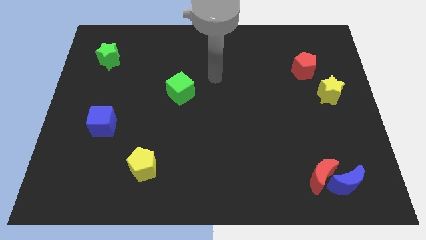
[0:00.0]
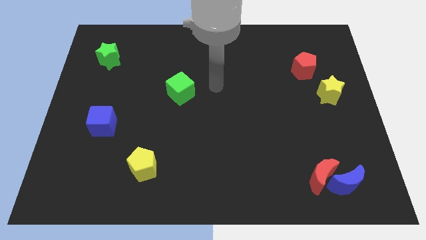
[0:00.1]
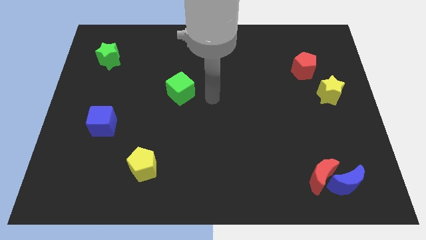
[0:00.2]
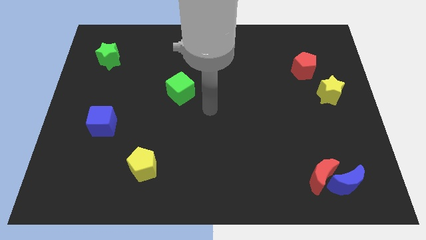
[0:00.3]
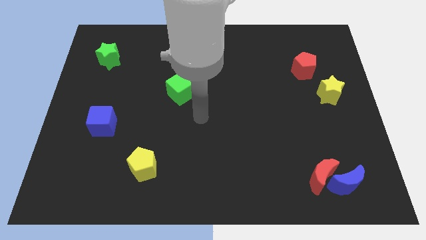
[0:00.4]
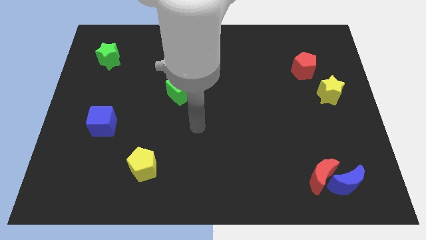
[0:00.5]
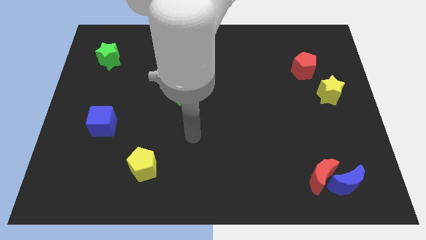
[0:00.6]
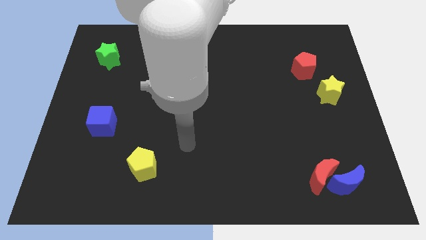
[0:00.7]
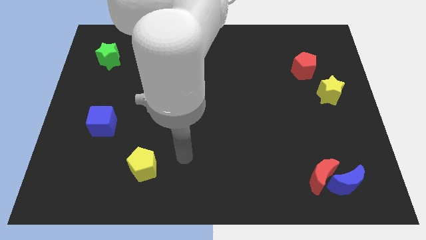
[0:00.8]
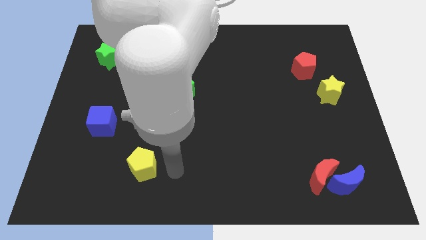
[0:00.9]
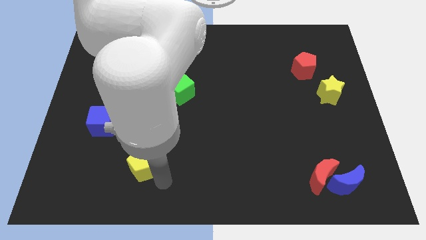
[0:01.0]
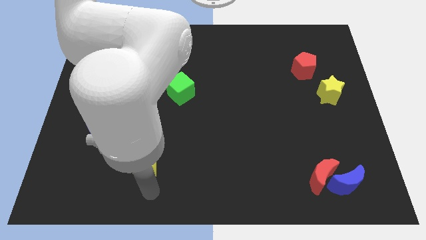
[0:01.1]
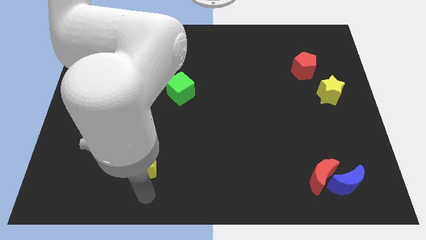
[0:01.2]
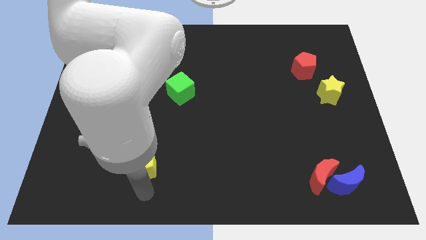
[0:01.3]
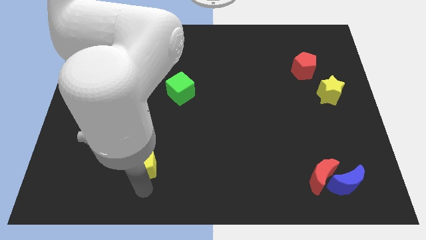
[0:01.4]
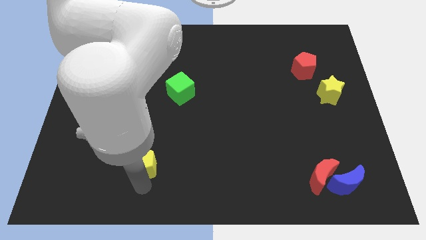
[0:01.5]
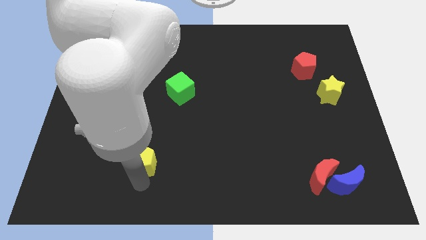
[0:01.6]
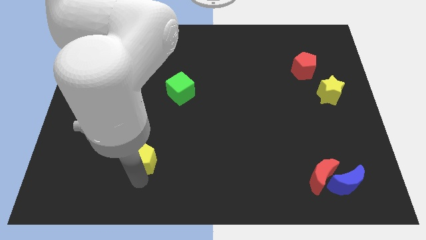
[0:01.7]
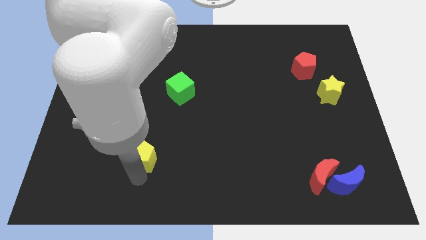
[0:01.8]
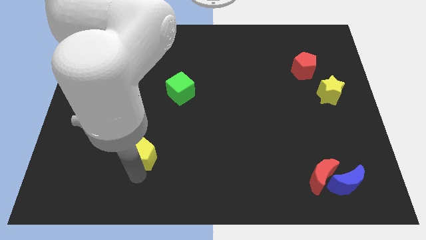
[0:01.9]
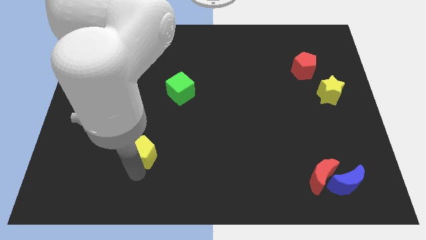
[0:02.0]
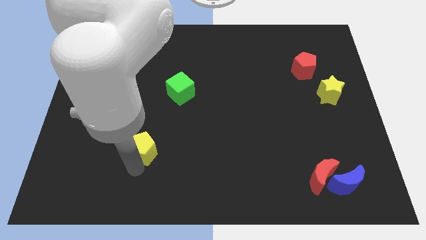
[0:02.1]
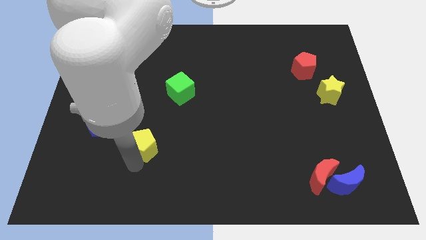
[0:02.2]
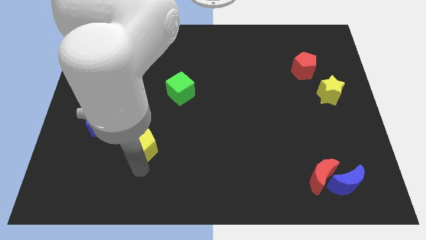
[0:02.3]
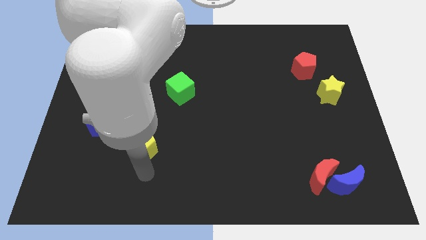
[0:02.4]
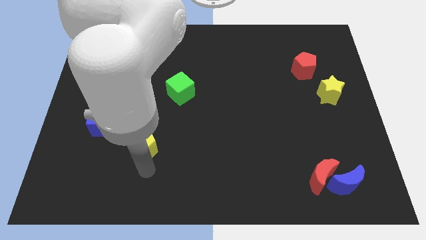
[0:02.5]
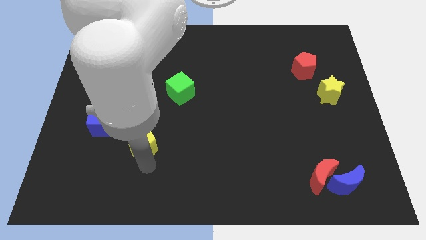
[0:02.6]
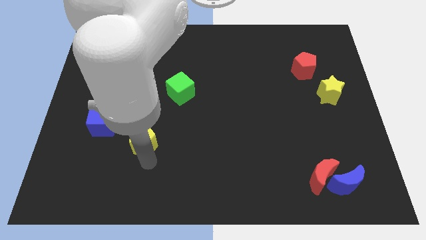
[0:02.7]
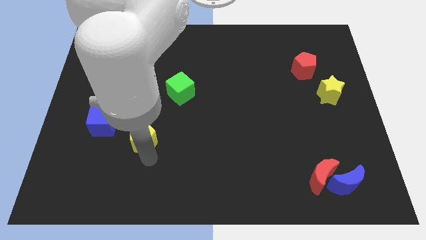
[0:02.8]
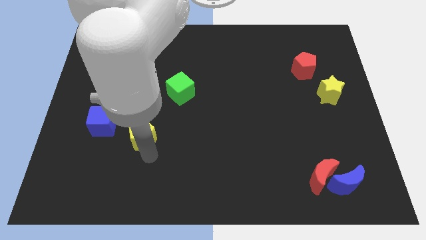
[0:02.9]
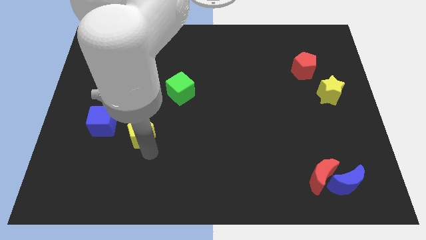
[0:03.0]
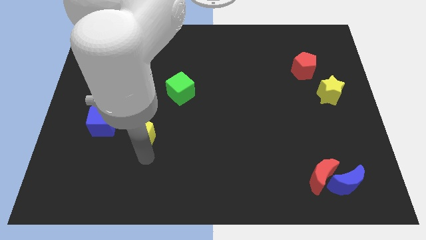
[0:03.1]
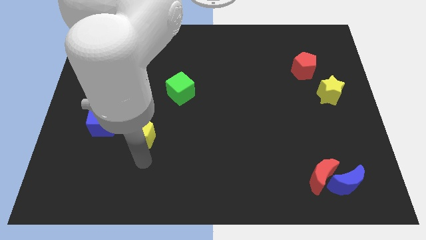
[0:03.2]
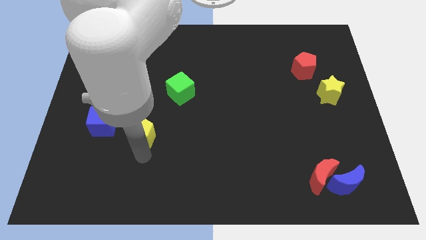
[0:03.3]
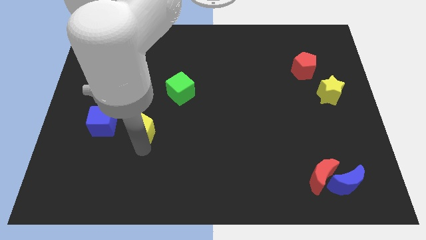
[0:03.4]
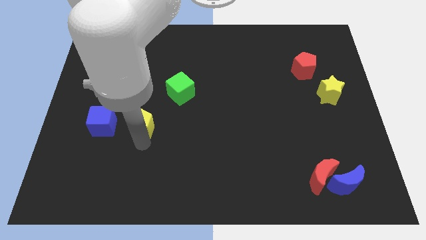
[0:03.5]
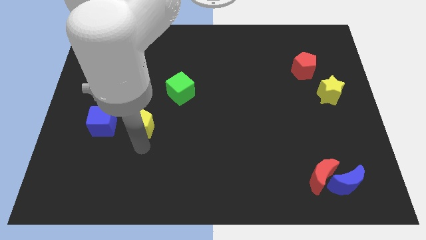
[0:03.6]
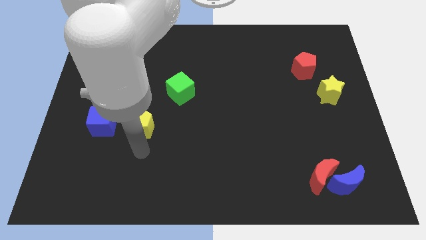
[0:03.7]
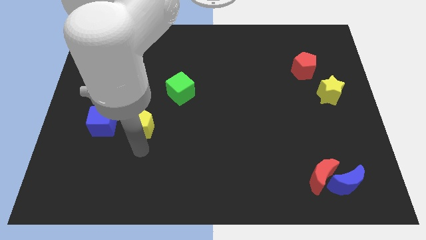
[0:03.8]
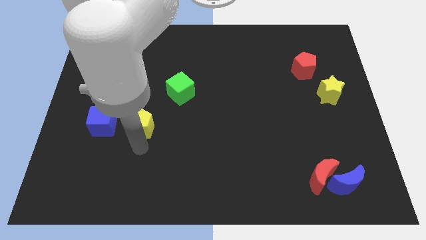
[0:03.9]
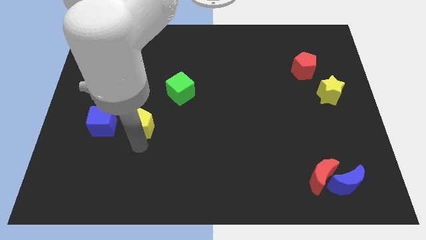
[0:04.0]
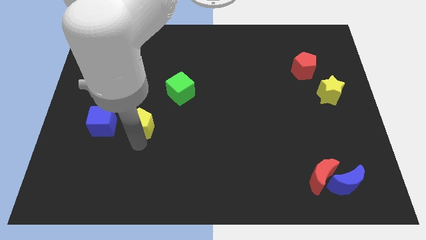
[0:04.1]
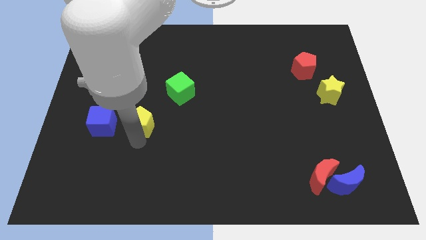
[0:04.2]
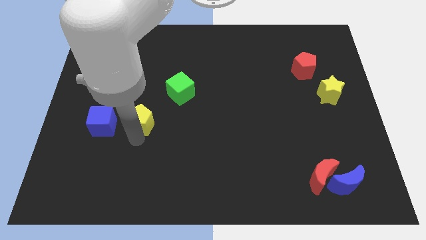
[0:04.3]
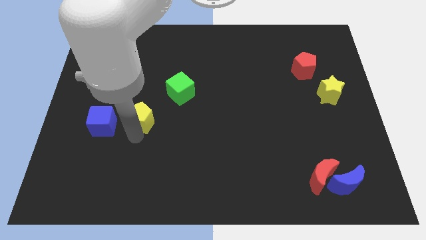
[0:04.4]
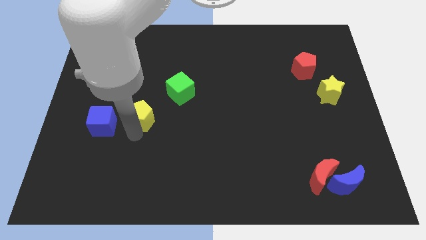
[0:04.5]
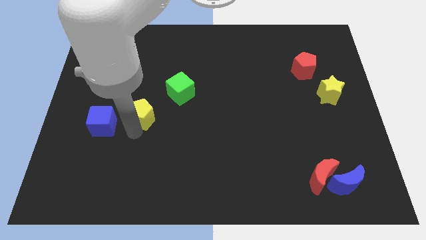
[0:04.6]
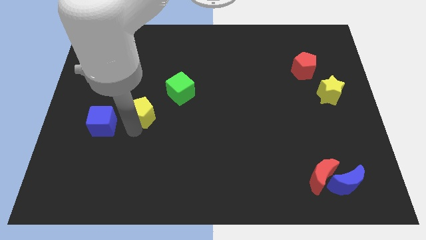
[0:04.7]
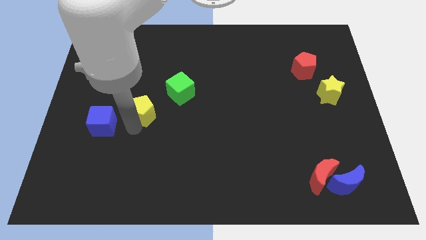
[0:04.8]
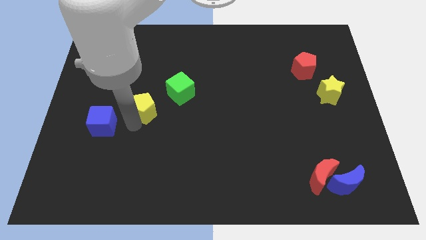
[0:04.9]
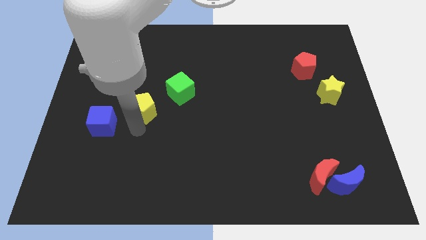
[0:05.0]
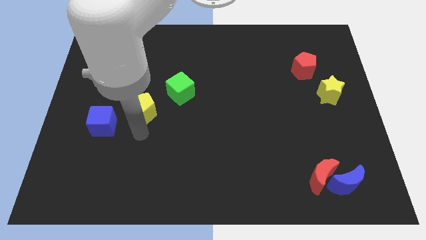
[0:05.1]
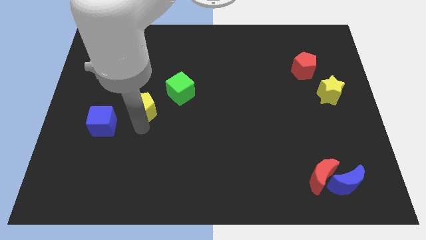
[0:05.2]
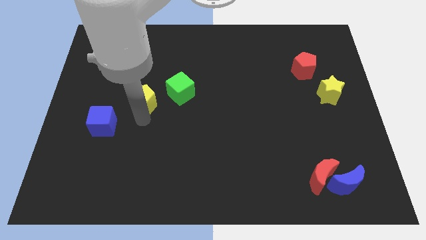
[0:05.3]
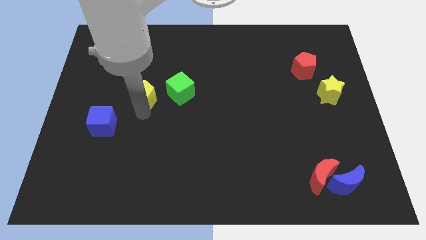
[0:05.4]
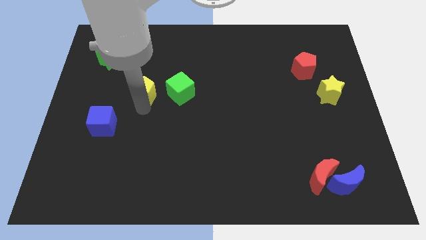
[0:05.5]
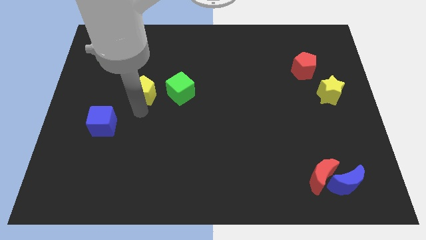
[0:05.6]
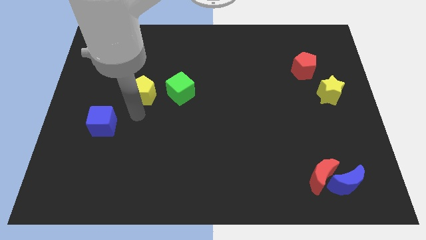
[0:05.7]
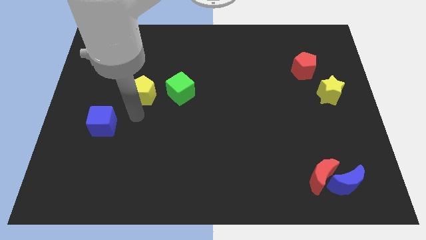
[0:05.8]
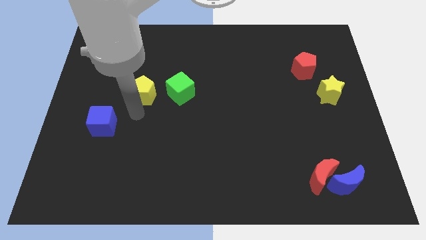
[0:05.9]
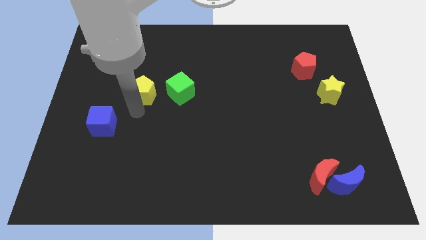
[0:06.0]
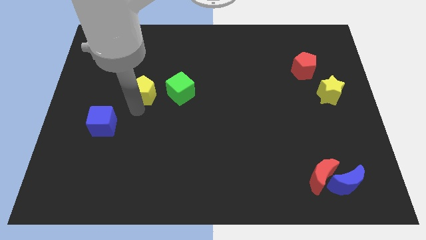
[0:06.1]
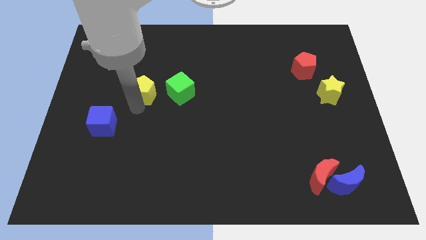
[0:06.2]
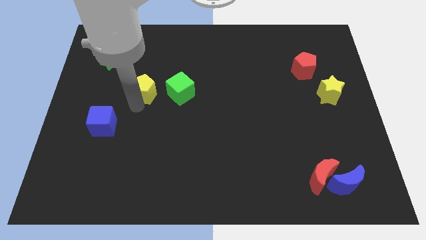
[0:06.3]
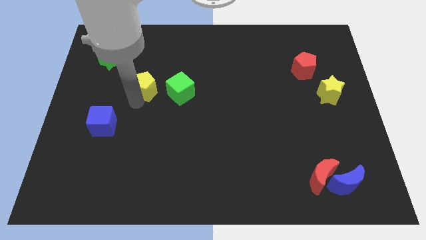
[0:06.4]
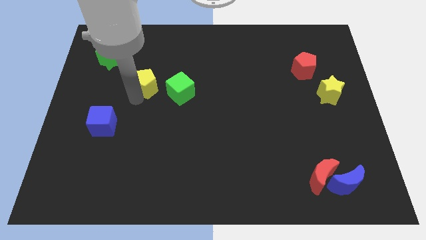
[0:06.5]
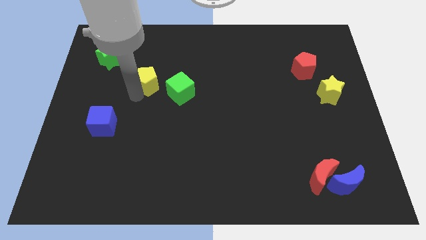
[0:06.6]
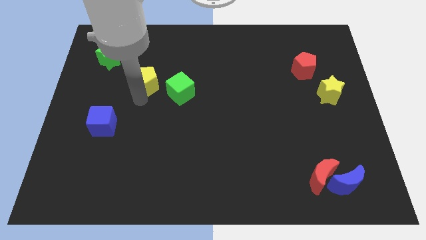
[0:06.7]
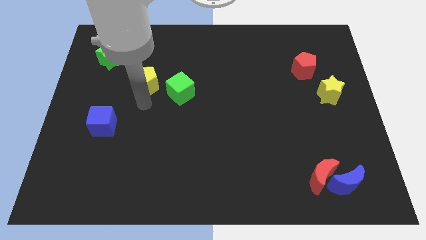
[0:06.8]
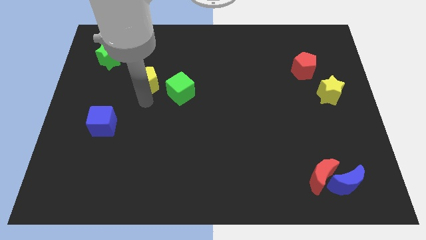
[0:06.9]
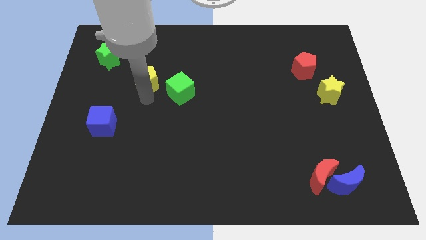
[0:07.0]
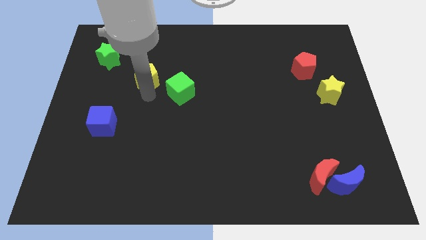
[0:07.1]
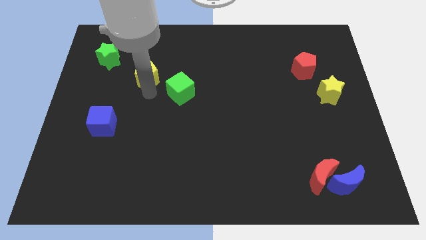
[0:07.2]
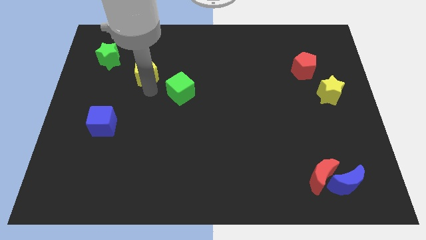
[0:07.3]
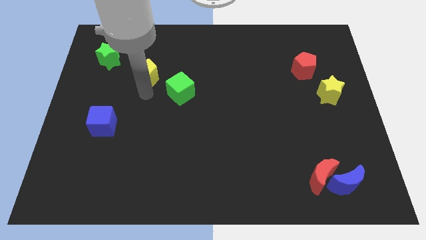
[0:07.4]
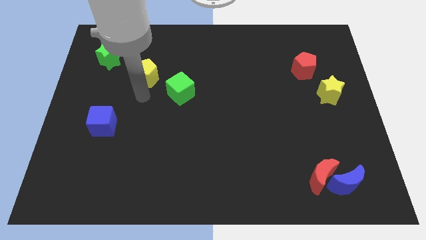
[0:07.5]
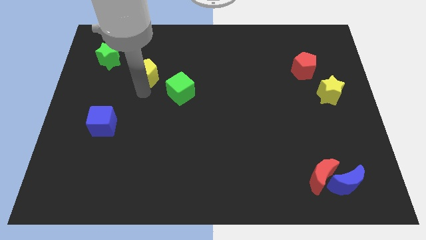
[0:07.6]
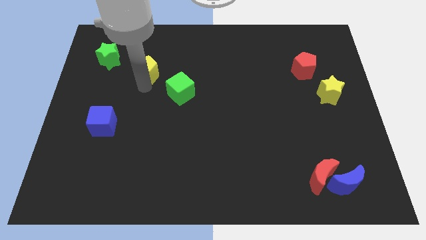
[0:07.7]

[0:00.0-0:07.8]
put the yellow pentagon just right of the green star
